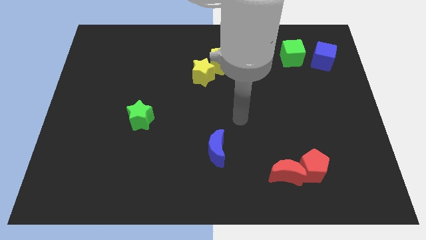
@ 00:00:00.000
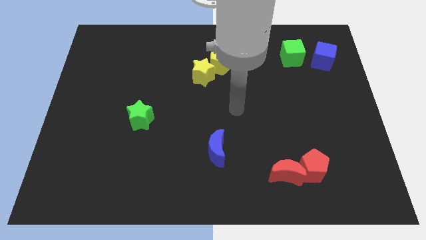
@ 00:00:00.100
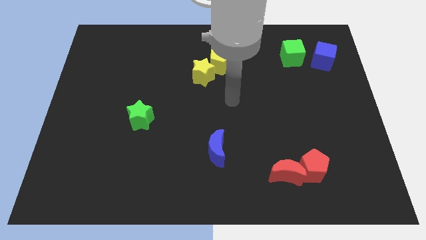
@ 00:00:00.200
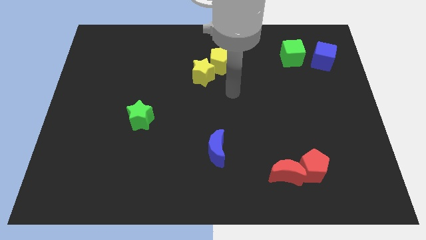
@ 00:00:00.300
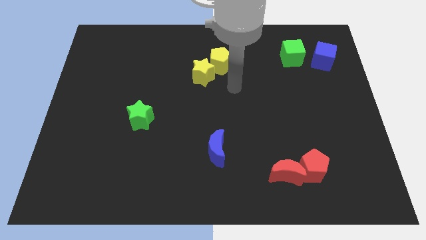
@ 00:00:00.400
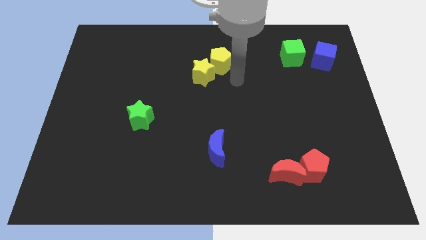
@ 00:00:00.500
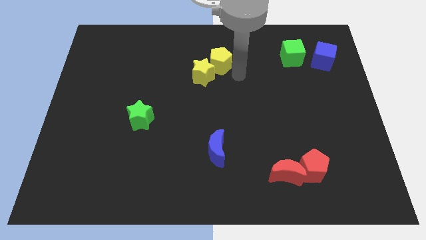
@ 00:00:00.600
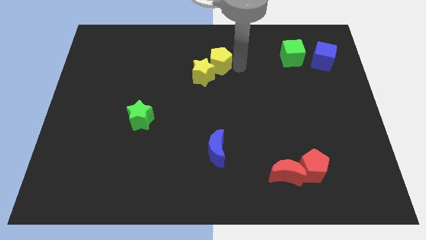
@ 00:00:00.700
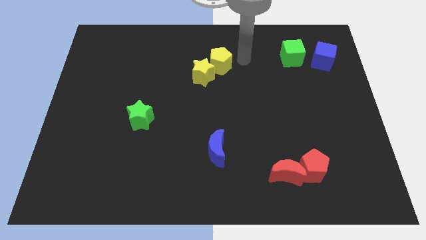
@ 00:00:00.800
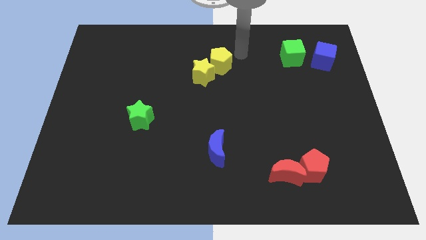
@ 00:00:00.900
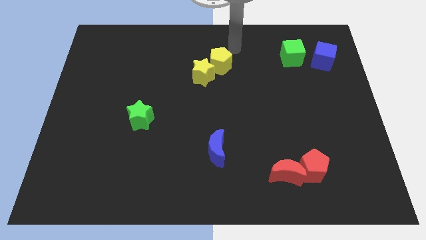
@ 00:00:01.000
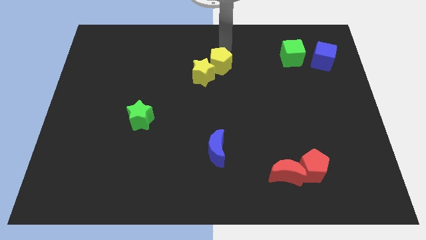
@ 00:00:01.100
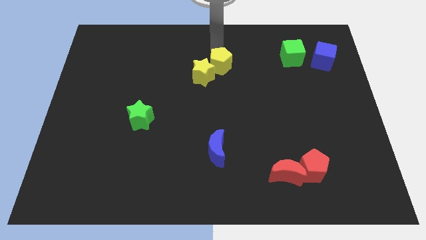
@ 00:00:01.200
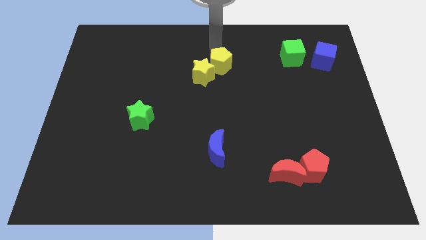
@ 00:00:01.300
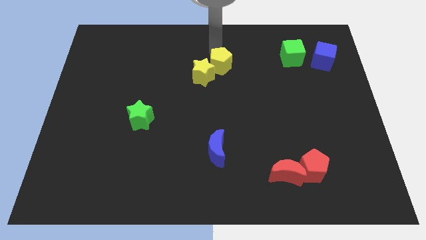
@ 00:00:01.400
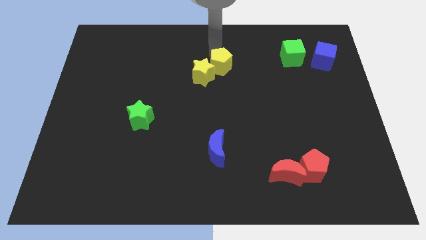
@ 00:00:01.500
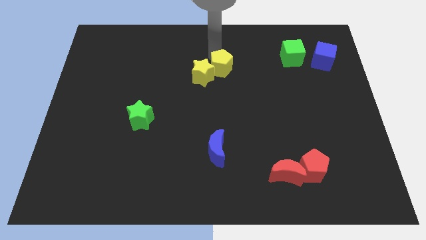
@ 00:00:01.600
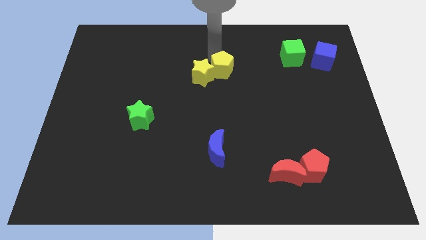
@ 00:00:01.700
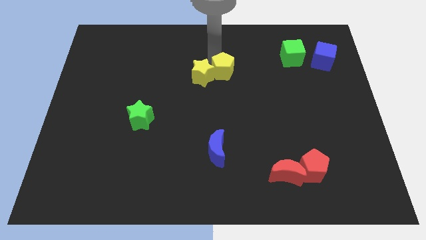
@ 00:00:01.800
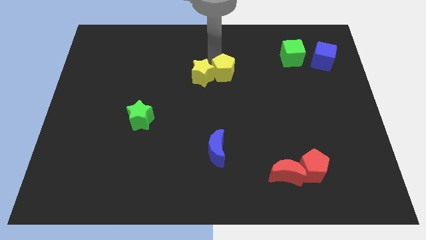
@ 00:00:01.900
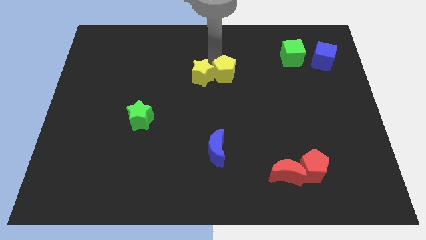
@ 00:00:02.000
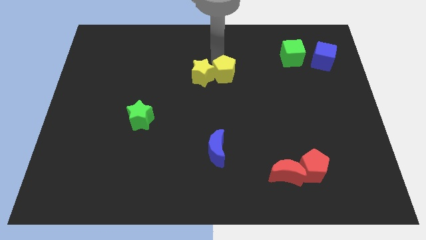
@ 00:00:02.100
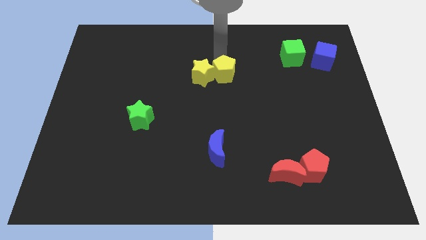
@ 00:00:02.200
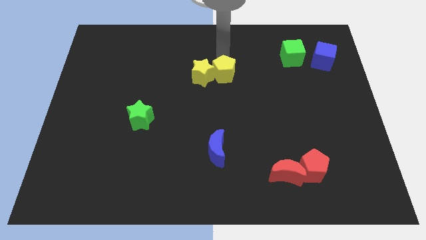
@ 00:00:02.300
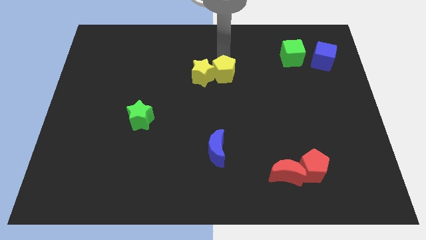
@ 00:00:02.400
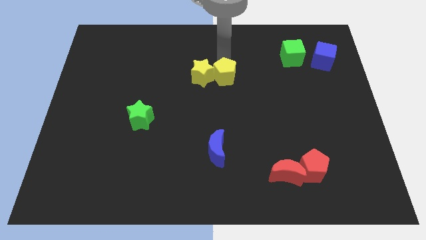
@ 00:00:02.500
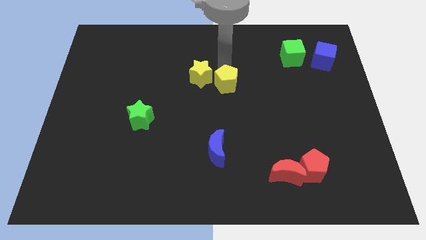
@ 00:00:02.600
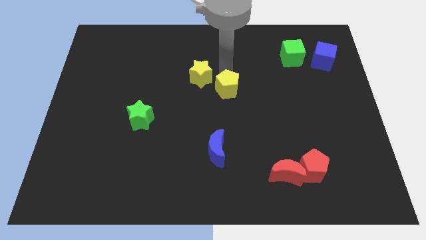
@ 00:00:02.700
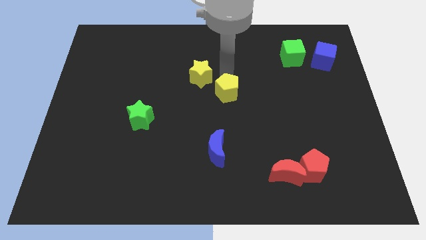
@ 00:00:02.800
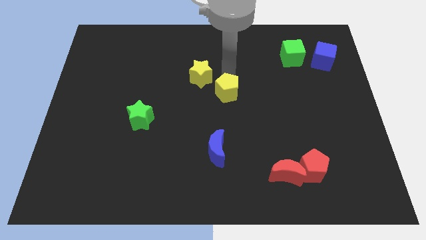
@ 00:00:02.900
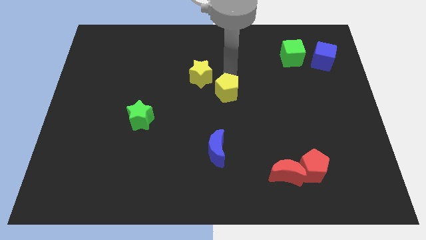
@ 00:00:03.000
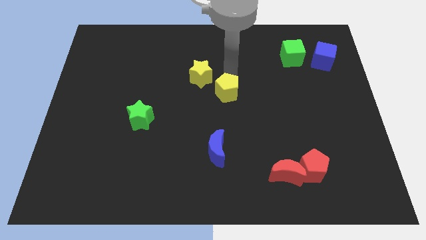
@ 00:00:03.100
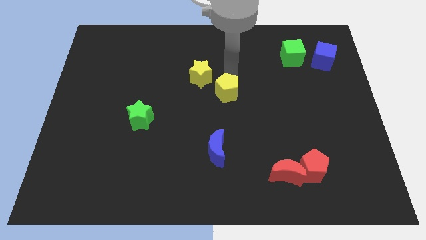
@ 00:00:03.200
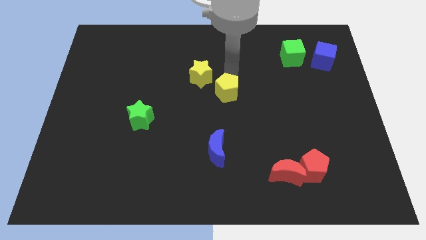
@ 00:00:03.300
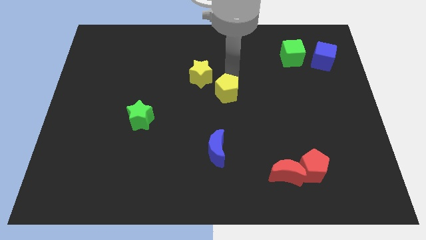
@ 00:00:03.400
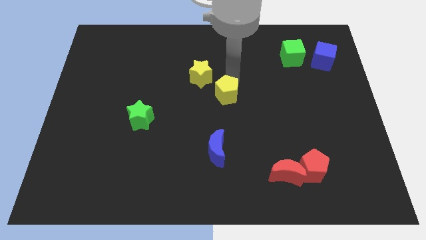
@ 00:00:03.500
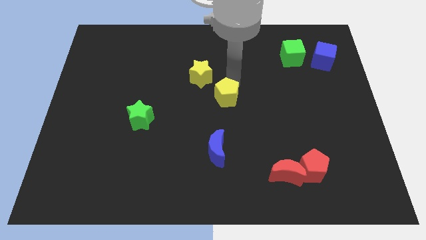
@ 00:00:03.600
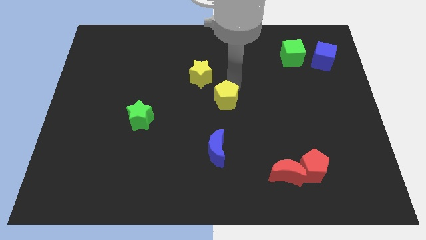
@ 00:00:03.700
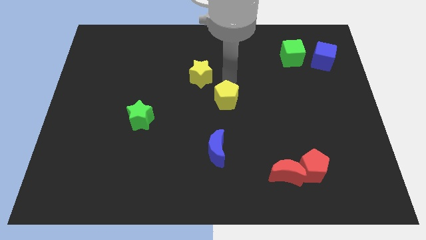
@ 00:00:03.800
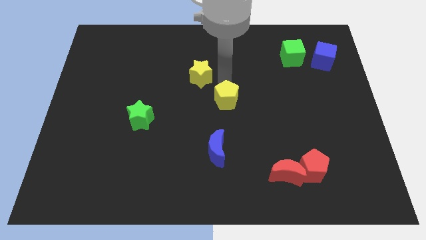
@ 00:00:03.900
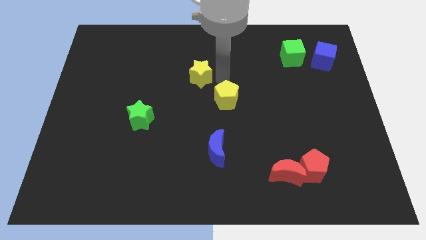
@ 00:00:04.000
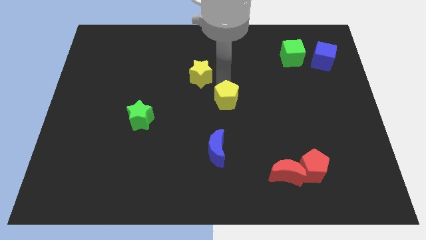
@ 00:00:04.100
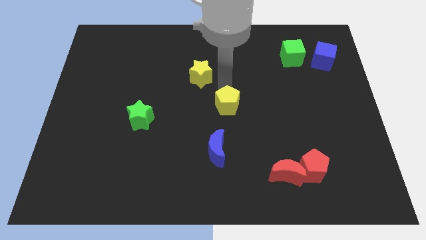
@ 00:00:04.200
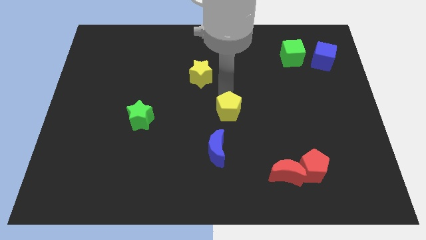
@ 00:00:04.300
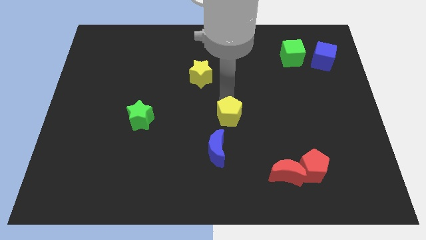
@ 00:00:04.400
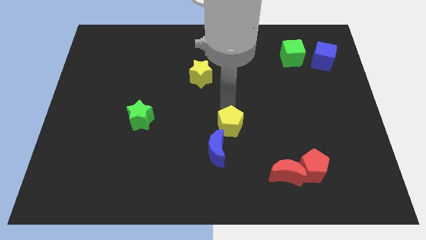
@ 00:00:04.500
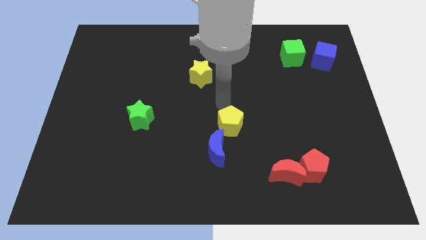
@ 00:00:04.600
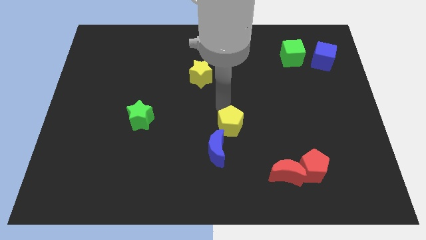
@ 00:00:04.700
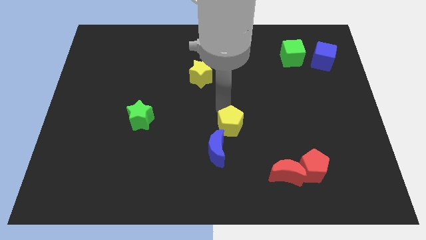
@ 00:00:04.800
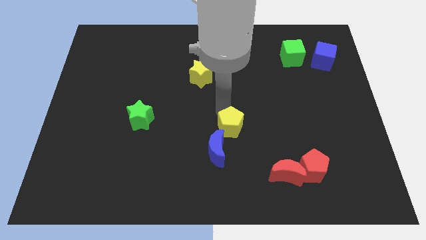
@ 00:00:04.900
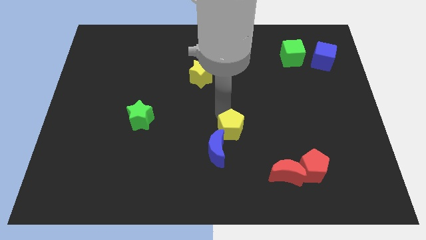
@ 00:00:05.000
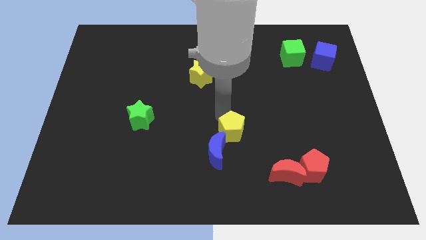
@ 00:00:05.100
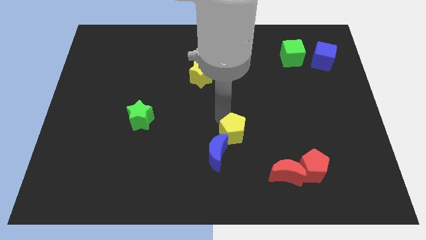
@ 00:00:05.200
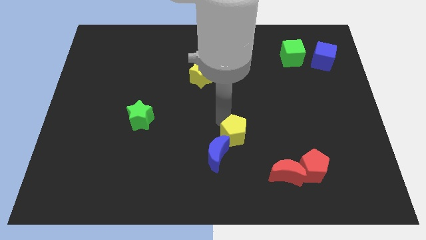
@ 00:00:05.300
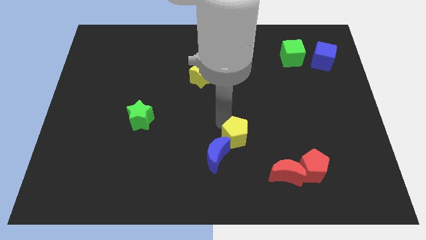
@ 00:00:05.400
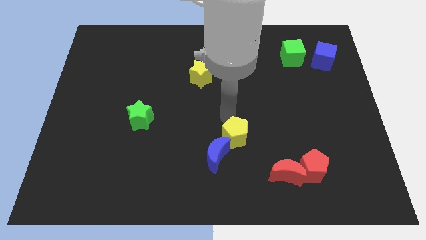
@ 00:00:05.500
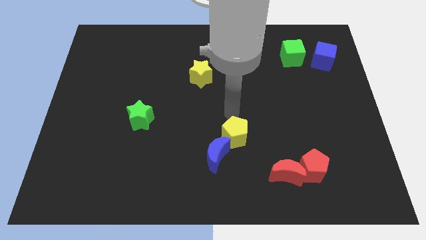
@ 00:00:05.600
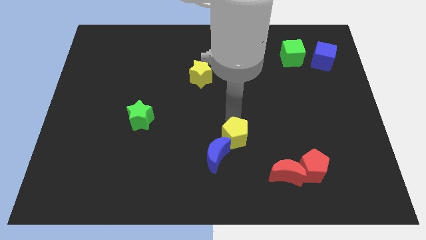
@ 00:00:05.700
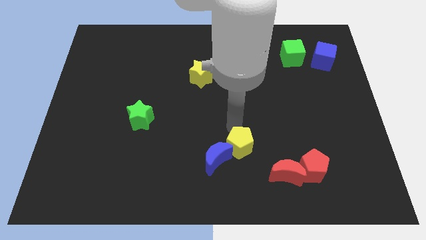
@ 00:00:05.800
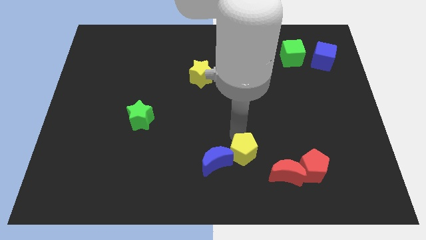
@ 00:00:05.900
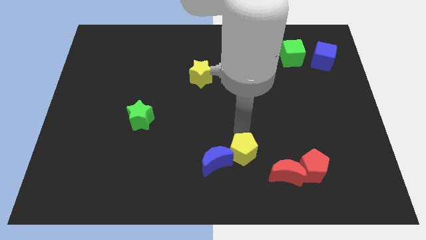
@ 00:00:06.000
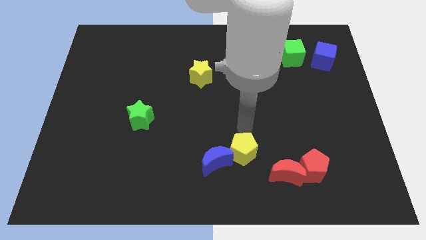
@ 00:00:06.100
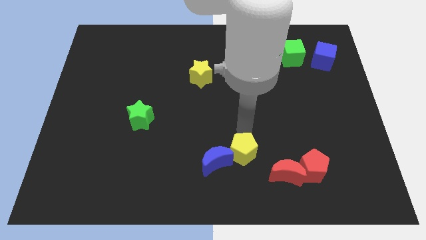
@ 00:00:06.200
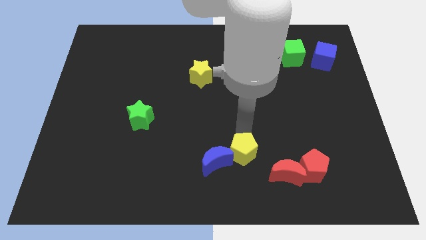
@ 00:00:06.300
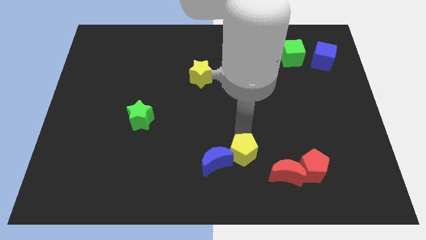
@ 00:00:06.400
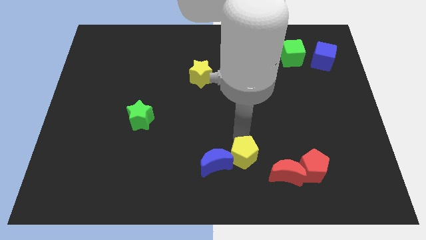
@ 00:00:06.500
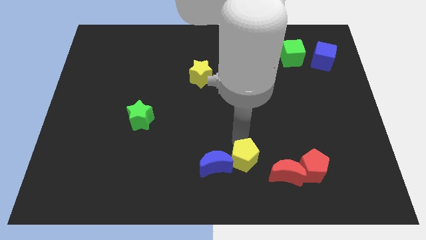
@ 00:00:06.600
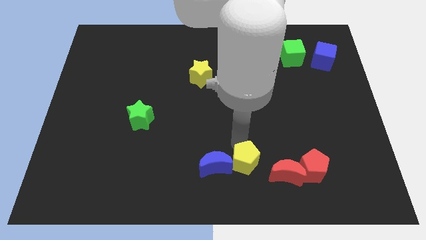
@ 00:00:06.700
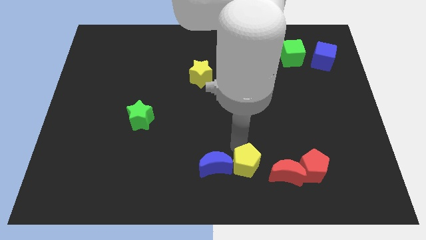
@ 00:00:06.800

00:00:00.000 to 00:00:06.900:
put the yellow pentagon to the bottom right side of the blue moon

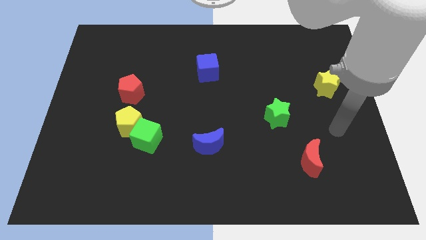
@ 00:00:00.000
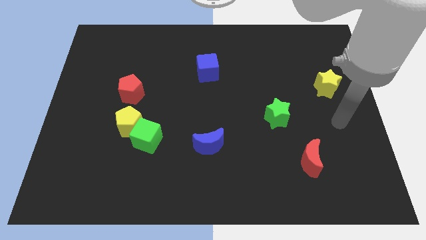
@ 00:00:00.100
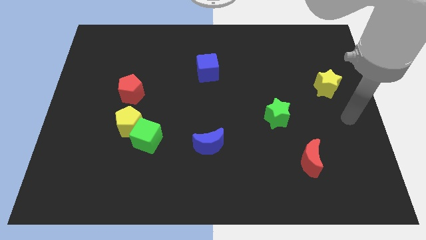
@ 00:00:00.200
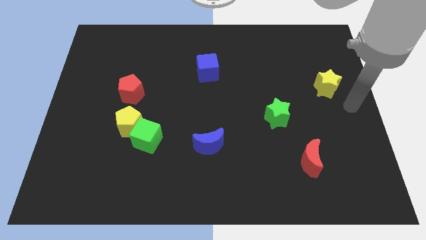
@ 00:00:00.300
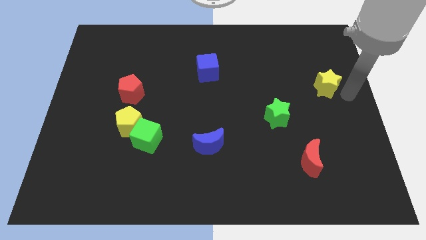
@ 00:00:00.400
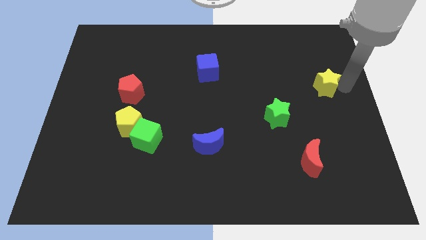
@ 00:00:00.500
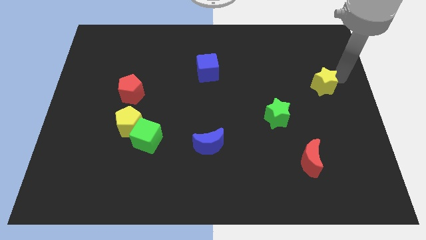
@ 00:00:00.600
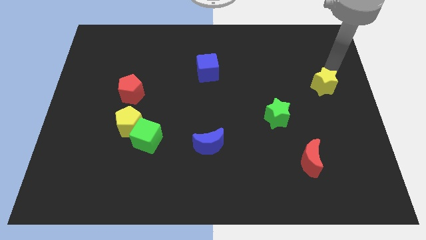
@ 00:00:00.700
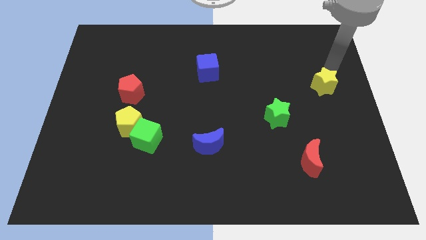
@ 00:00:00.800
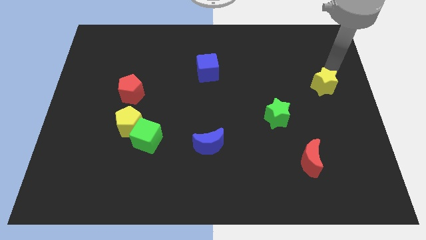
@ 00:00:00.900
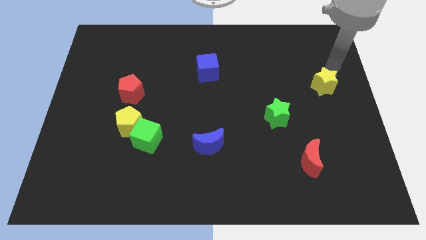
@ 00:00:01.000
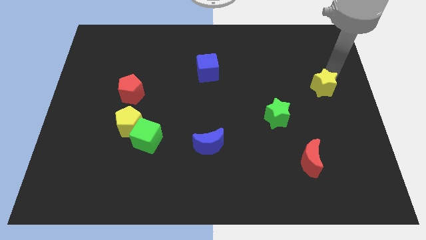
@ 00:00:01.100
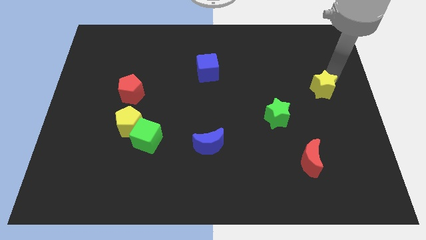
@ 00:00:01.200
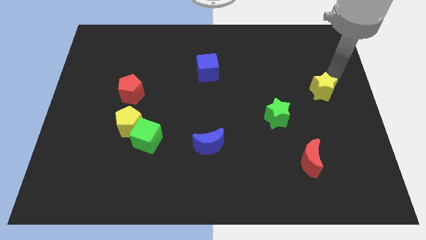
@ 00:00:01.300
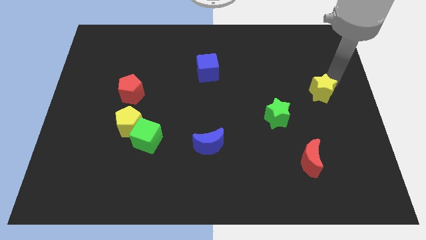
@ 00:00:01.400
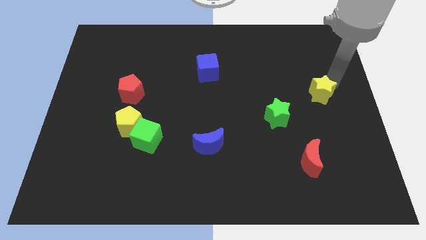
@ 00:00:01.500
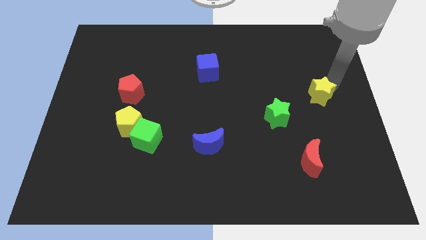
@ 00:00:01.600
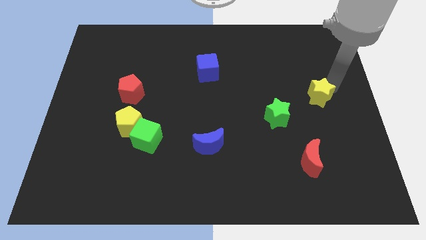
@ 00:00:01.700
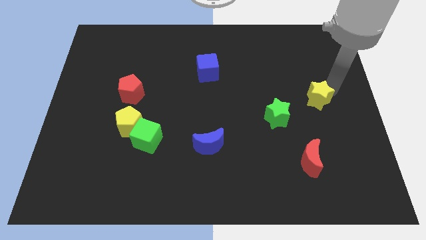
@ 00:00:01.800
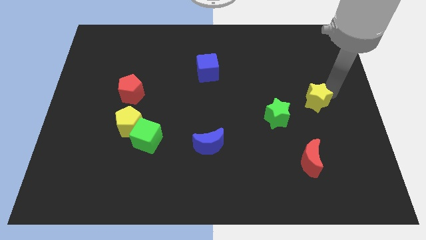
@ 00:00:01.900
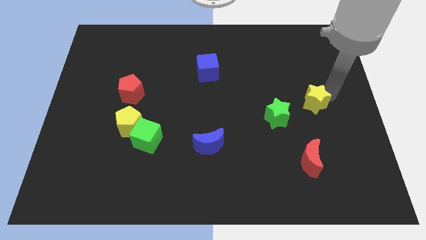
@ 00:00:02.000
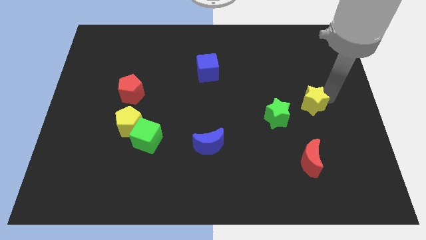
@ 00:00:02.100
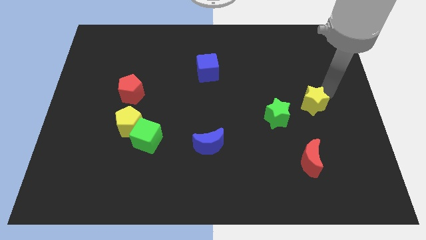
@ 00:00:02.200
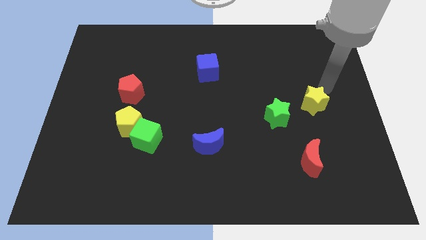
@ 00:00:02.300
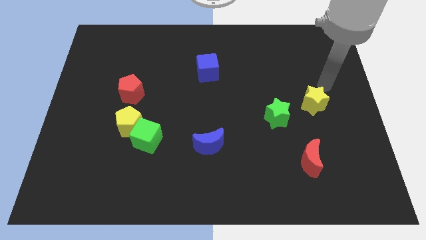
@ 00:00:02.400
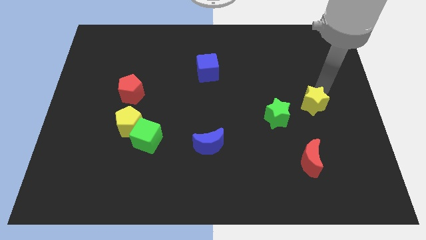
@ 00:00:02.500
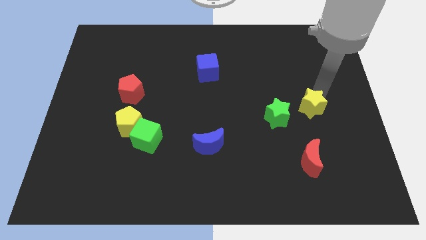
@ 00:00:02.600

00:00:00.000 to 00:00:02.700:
slide the yellow star to the top of the red moon
